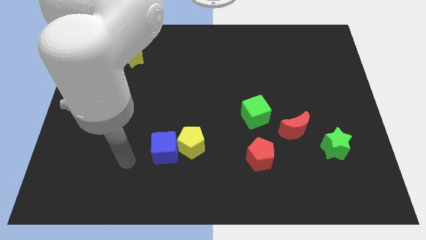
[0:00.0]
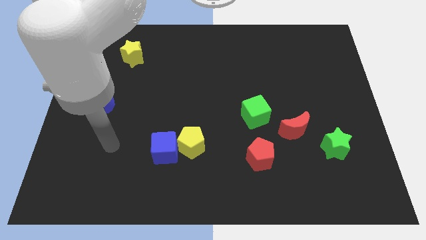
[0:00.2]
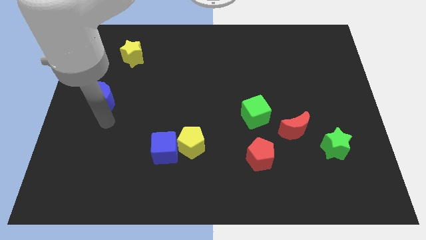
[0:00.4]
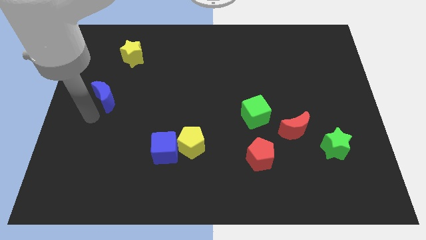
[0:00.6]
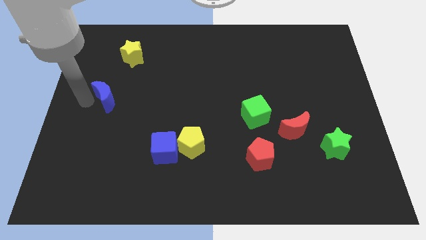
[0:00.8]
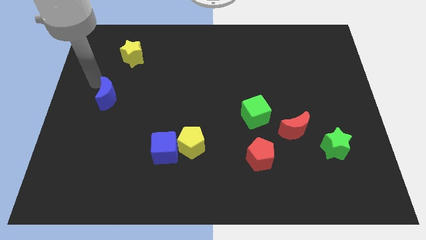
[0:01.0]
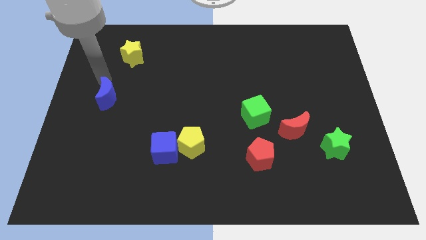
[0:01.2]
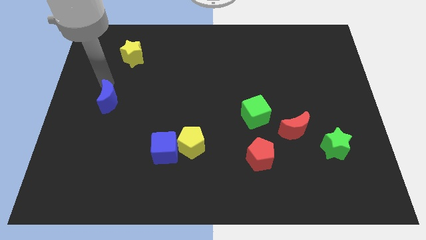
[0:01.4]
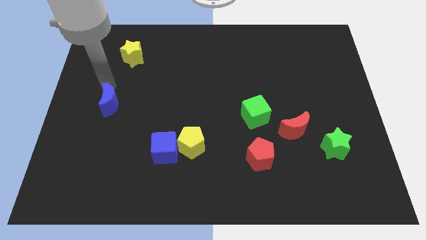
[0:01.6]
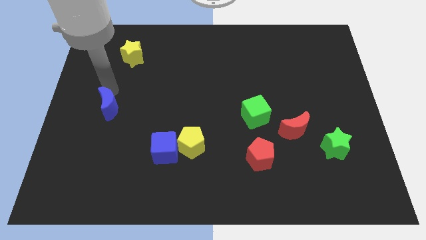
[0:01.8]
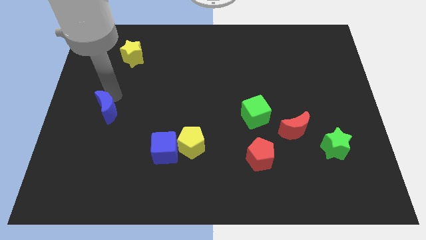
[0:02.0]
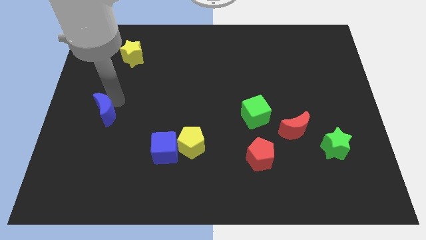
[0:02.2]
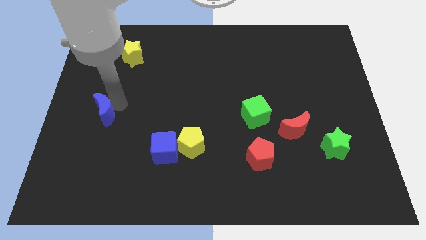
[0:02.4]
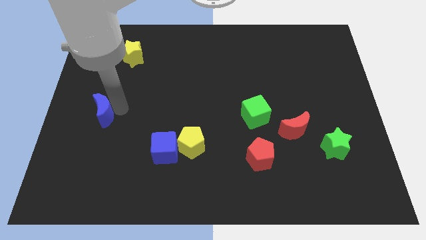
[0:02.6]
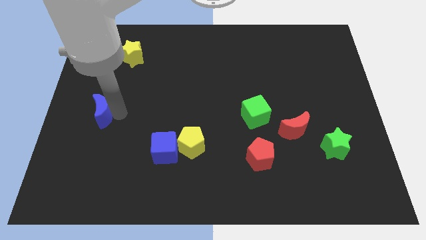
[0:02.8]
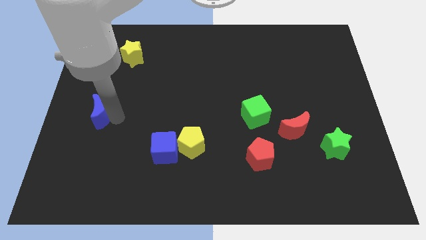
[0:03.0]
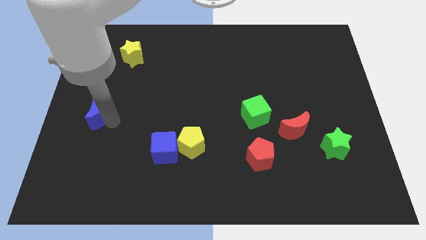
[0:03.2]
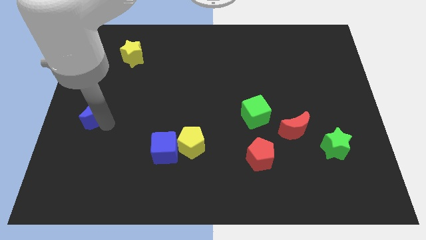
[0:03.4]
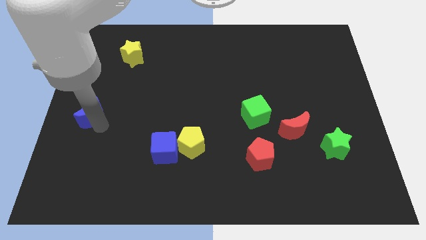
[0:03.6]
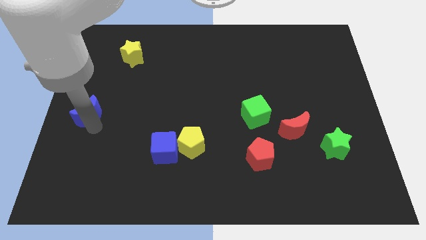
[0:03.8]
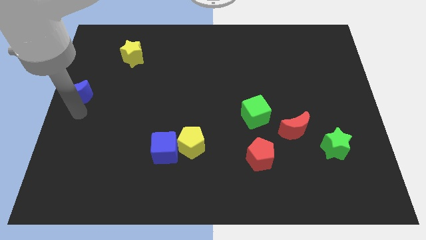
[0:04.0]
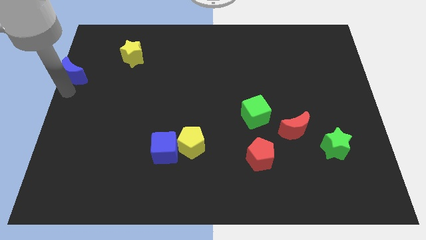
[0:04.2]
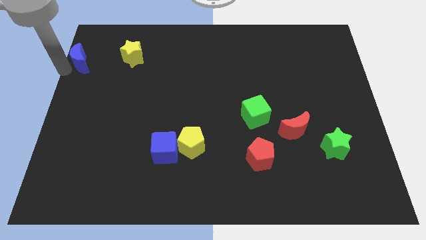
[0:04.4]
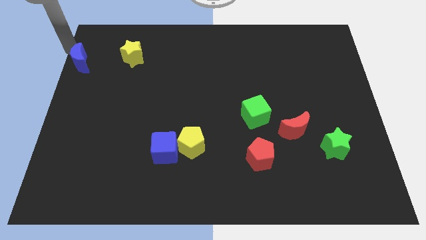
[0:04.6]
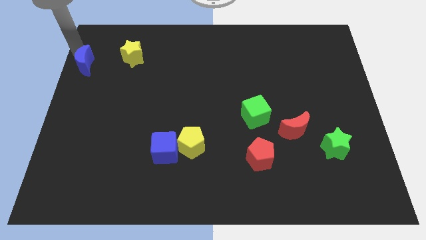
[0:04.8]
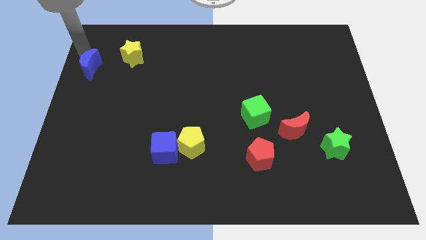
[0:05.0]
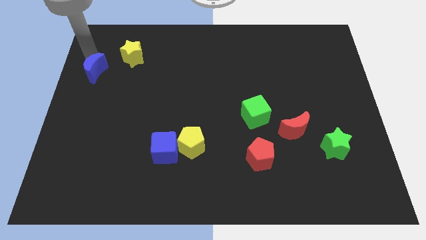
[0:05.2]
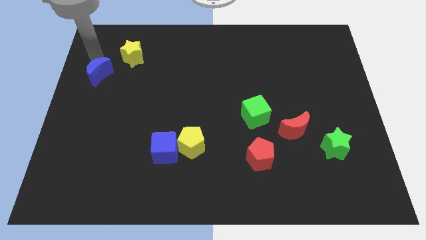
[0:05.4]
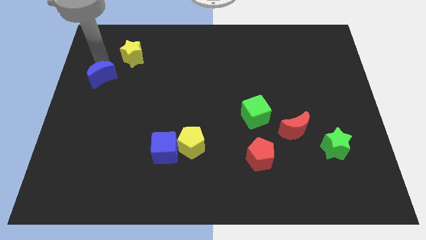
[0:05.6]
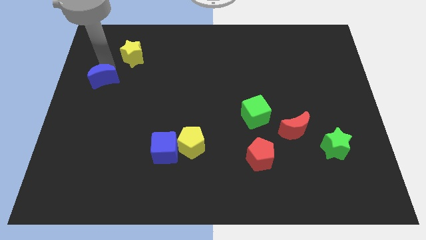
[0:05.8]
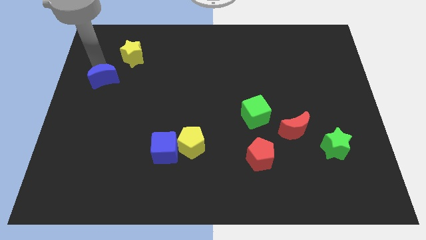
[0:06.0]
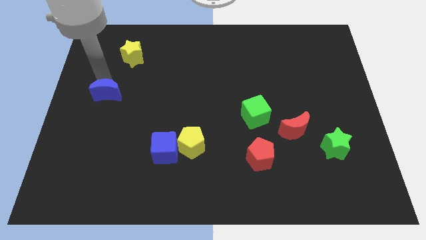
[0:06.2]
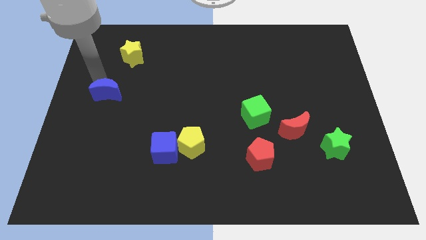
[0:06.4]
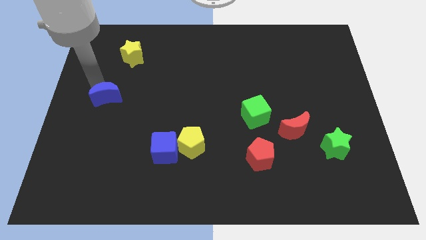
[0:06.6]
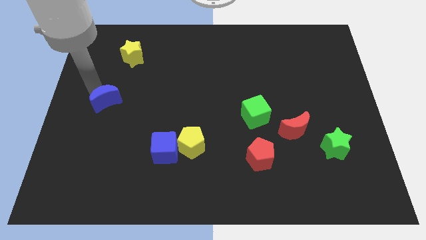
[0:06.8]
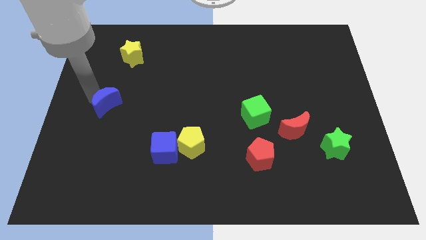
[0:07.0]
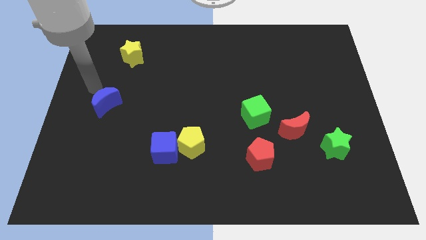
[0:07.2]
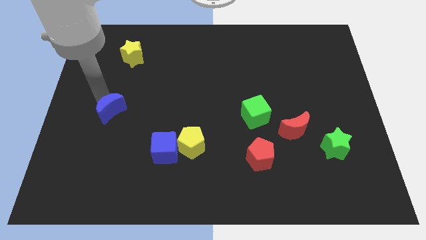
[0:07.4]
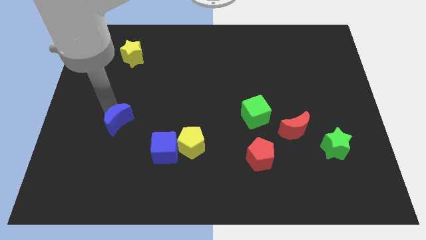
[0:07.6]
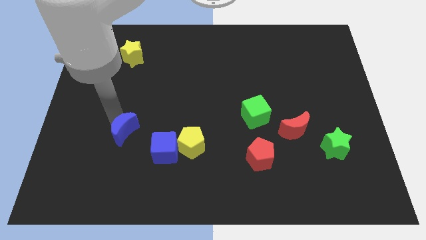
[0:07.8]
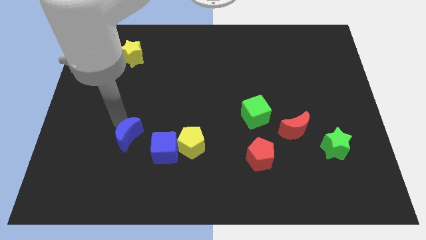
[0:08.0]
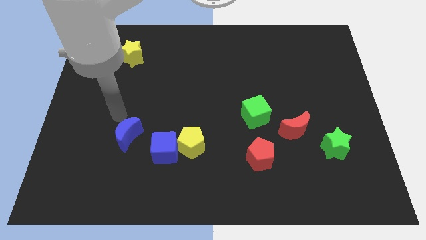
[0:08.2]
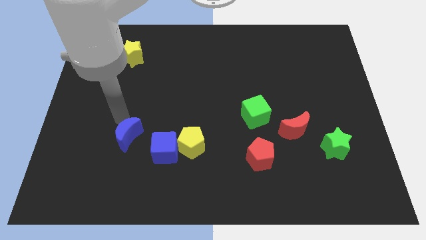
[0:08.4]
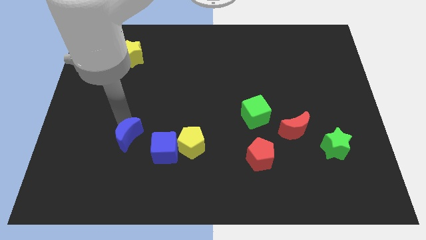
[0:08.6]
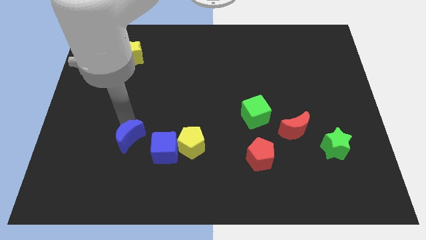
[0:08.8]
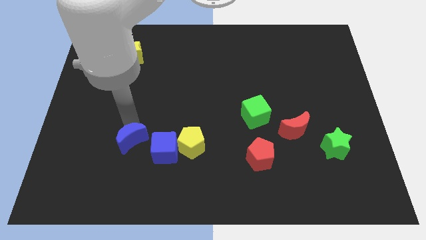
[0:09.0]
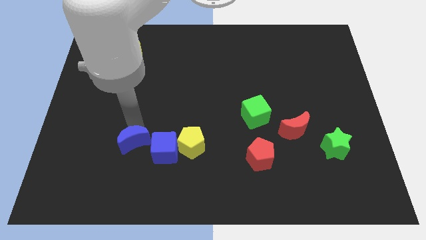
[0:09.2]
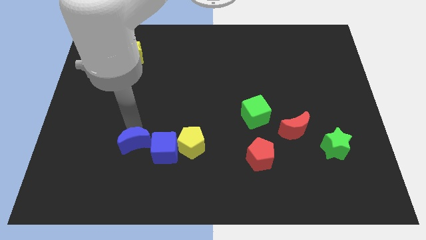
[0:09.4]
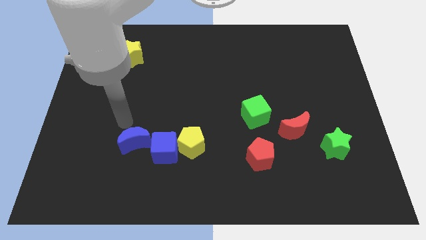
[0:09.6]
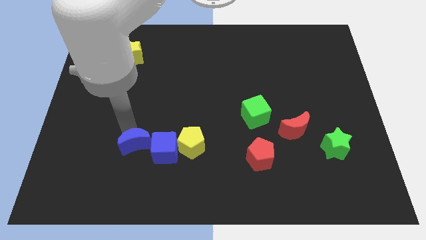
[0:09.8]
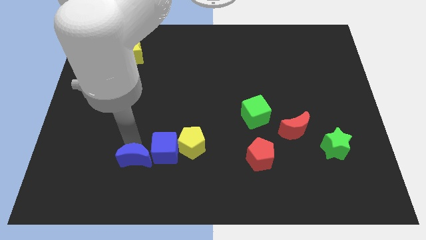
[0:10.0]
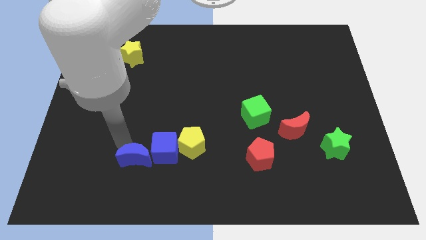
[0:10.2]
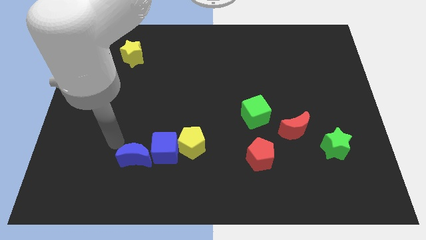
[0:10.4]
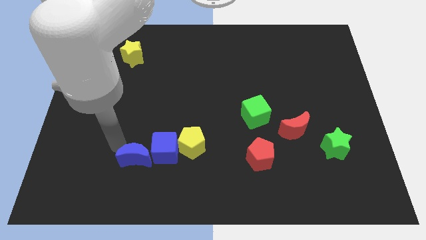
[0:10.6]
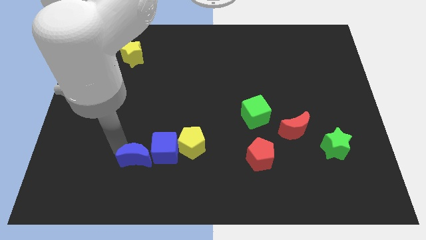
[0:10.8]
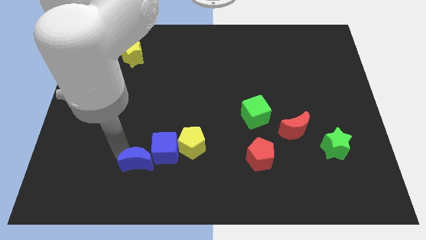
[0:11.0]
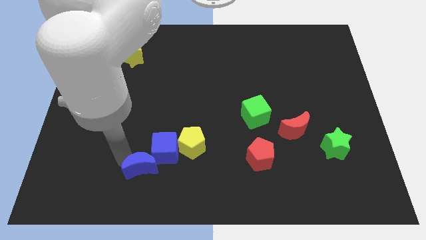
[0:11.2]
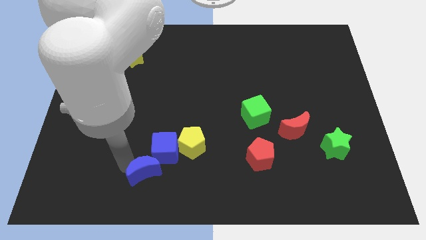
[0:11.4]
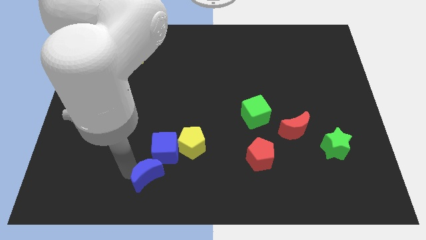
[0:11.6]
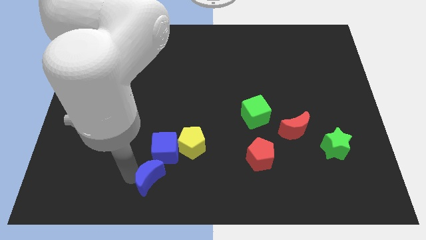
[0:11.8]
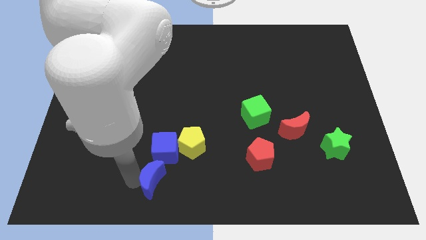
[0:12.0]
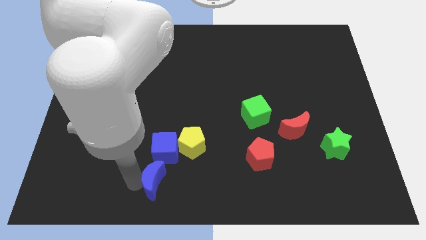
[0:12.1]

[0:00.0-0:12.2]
slide the blue moon to the bottom
